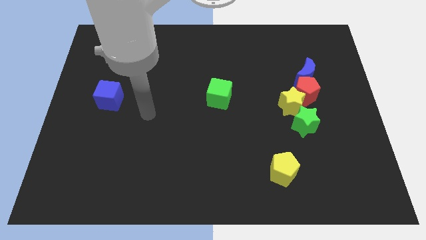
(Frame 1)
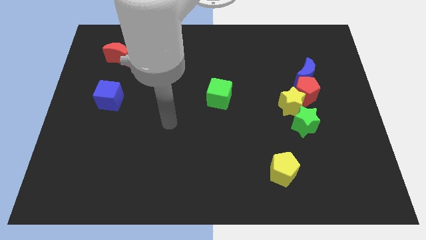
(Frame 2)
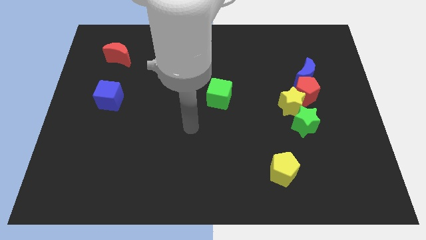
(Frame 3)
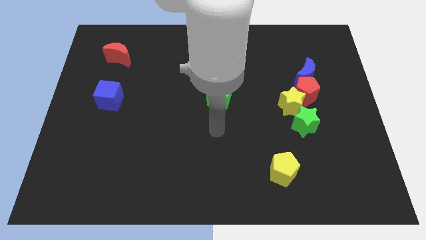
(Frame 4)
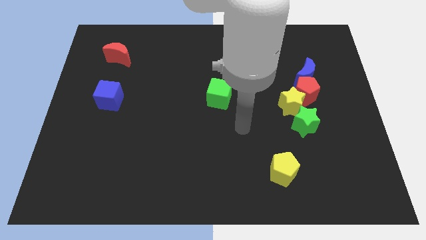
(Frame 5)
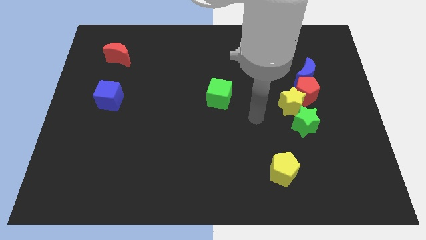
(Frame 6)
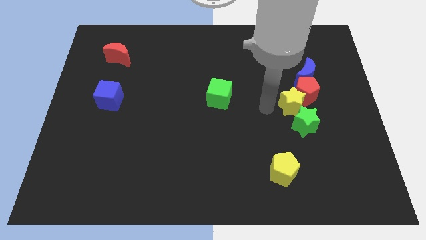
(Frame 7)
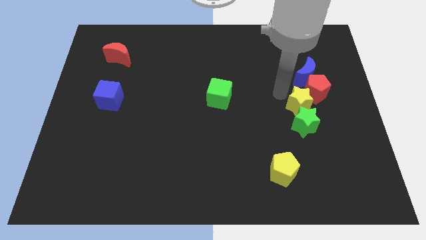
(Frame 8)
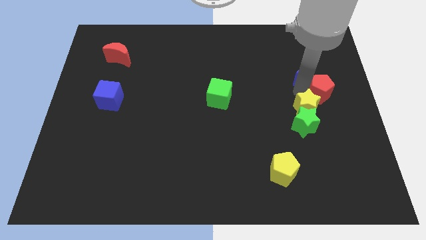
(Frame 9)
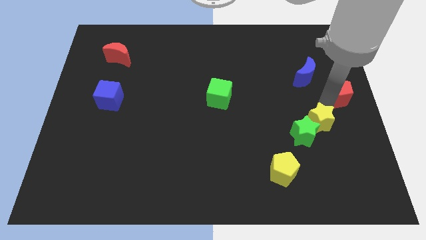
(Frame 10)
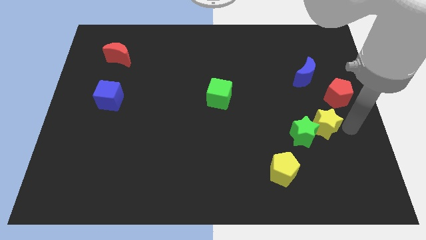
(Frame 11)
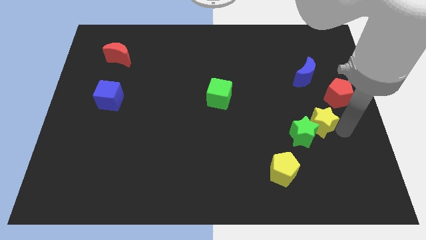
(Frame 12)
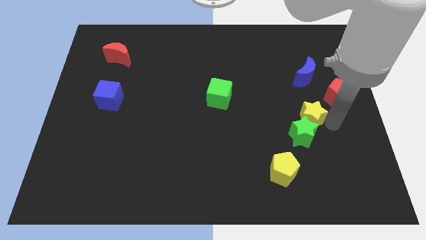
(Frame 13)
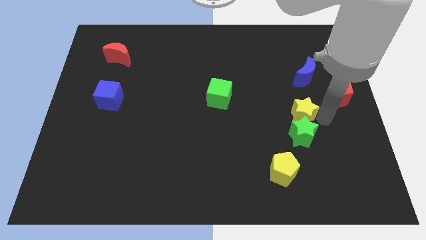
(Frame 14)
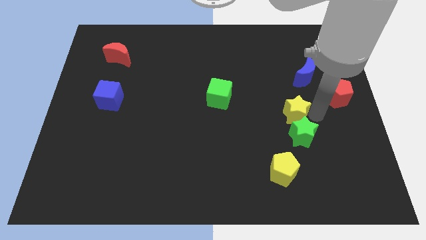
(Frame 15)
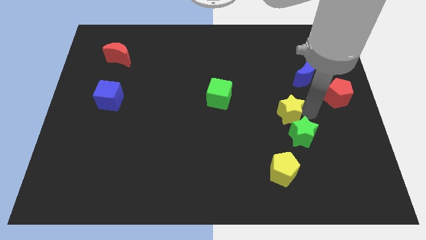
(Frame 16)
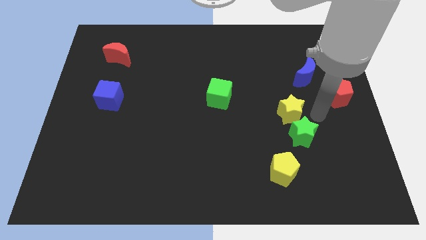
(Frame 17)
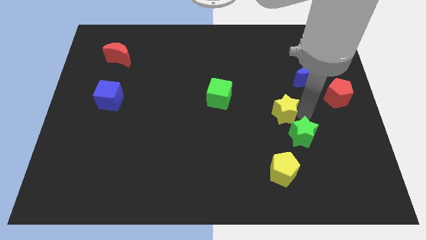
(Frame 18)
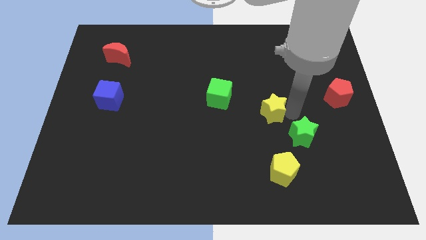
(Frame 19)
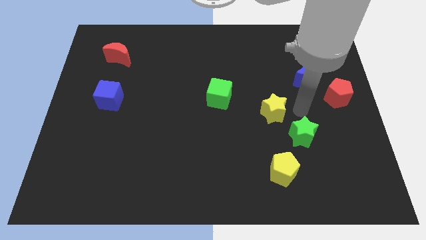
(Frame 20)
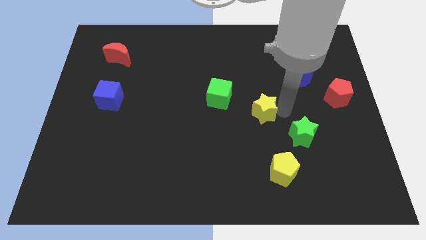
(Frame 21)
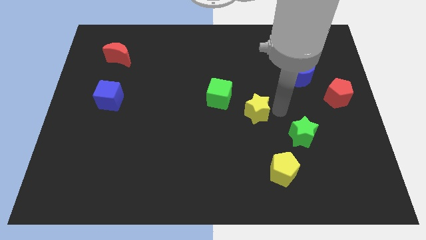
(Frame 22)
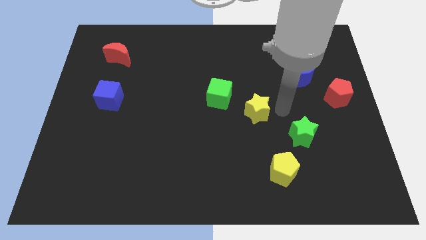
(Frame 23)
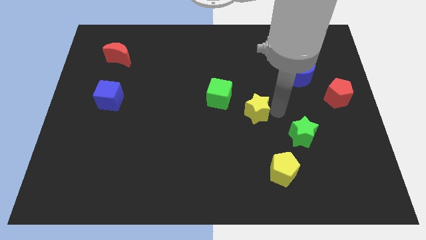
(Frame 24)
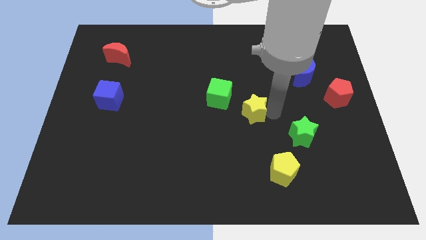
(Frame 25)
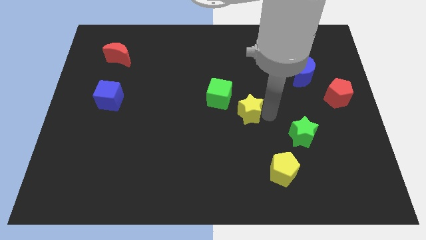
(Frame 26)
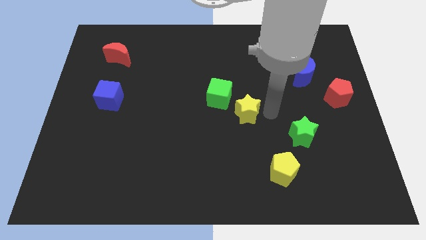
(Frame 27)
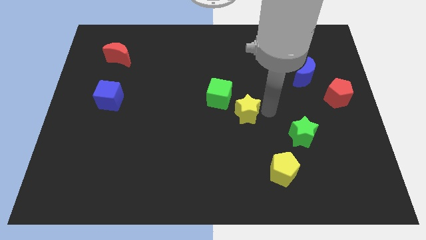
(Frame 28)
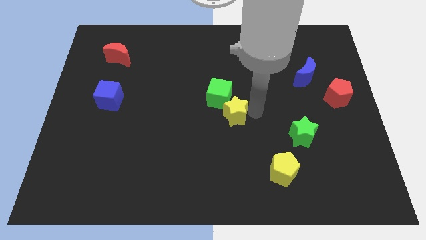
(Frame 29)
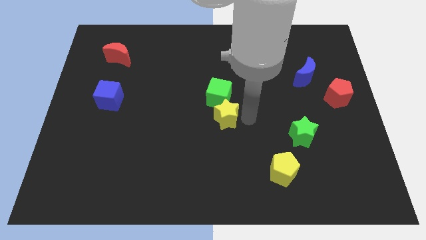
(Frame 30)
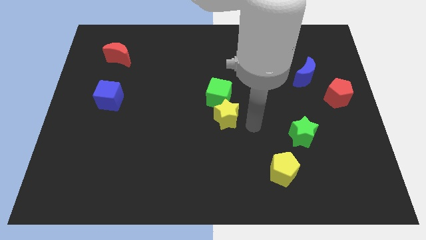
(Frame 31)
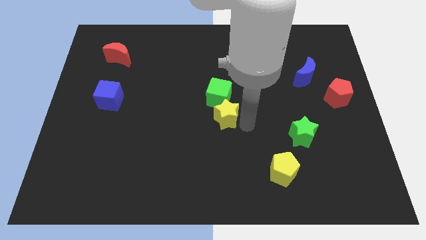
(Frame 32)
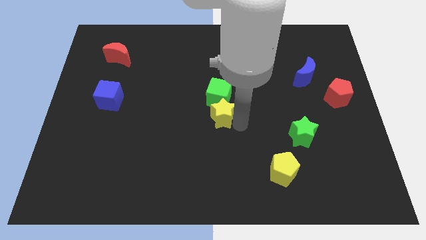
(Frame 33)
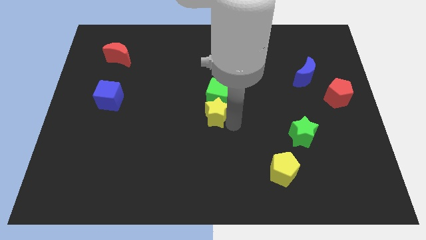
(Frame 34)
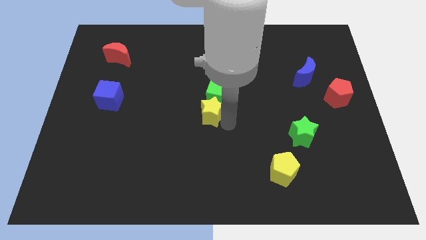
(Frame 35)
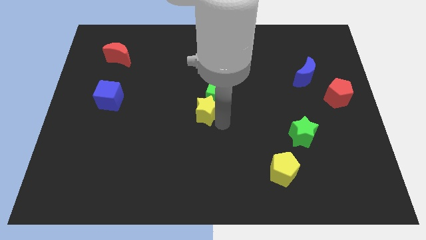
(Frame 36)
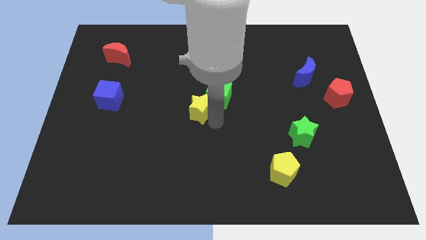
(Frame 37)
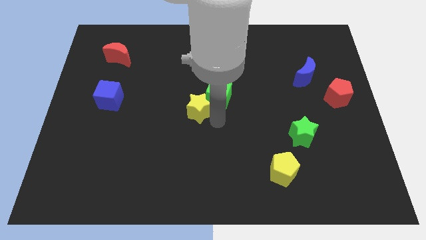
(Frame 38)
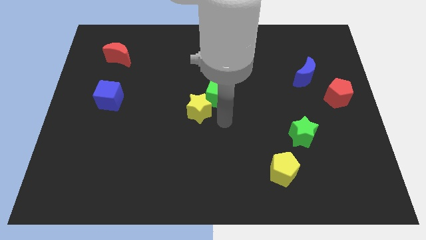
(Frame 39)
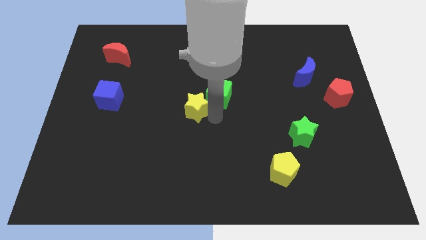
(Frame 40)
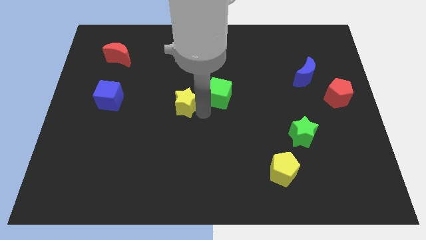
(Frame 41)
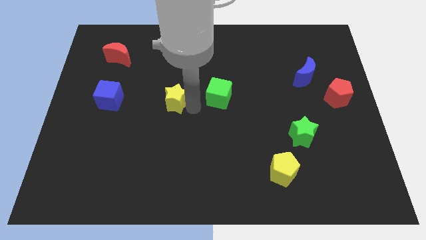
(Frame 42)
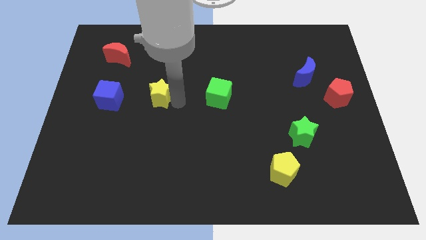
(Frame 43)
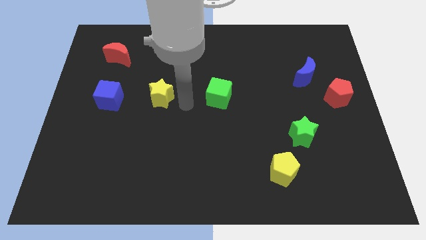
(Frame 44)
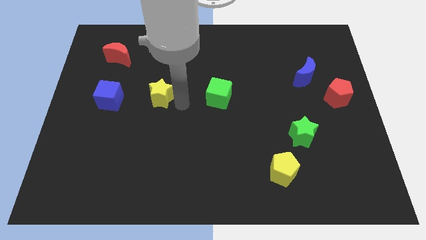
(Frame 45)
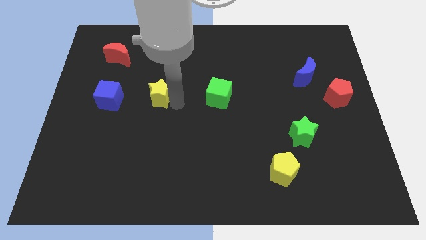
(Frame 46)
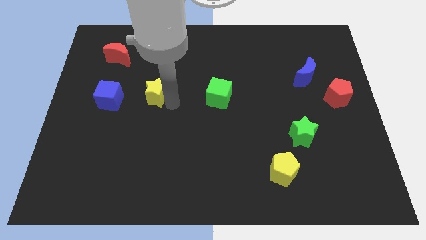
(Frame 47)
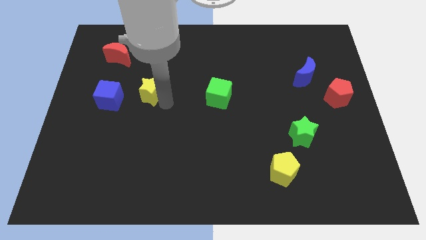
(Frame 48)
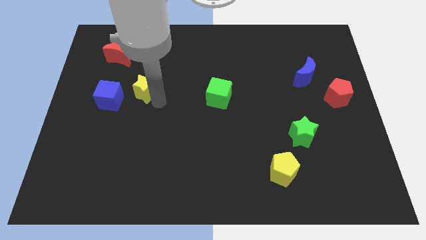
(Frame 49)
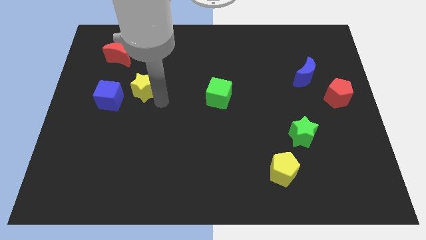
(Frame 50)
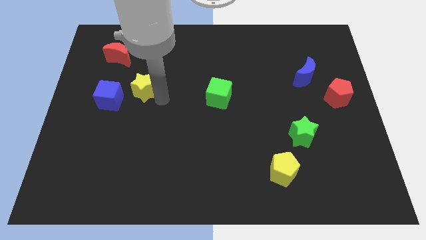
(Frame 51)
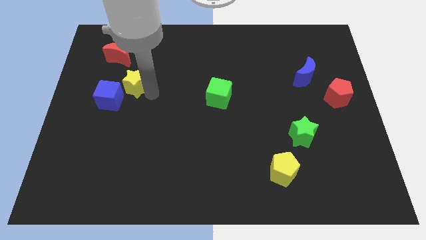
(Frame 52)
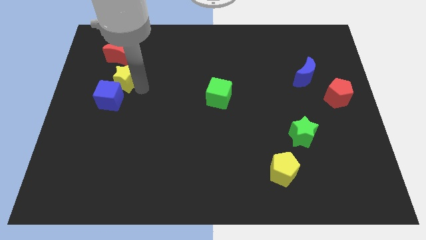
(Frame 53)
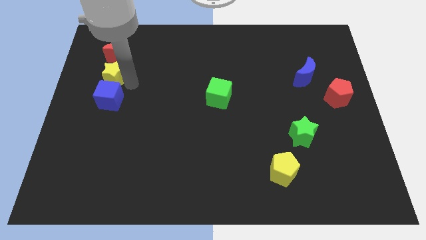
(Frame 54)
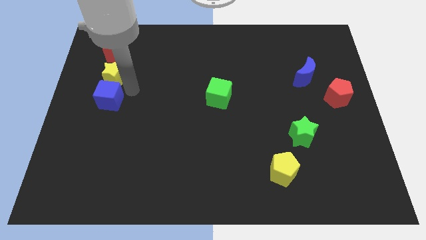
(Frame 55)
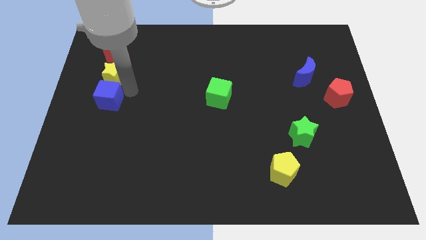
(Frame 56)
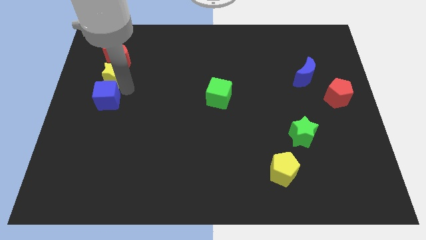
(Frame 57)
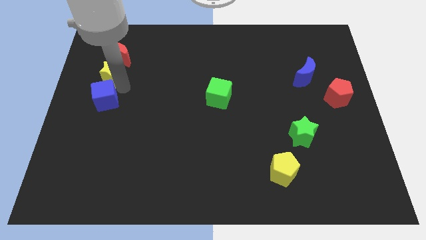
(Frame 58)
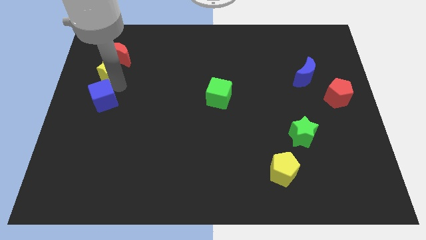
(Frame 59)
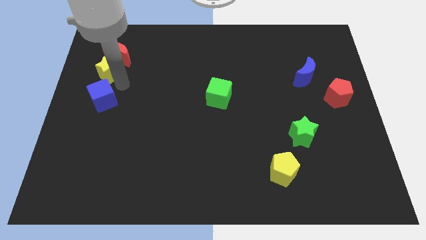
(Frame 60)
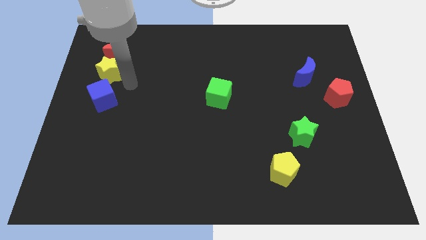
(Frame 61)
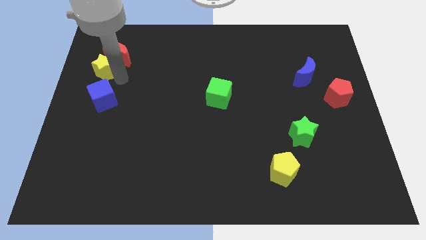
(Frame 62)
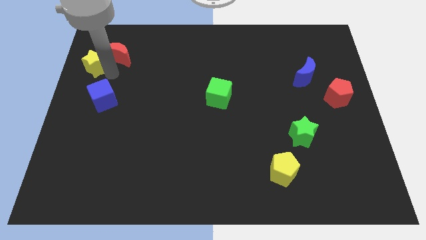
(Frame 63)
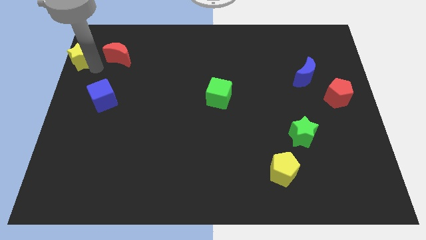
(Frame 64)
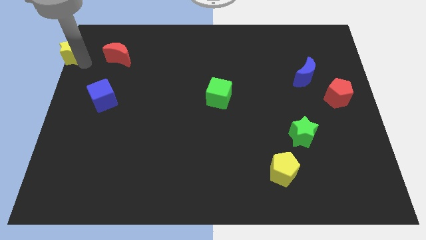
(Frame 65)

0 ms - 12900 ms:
push the yellow star to the top left corner
